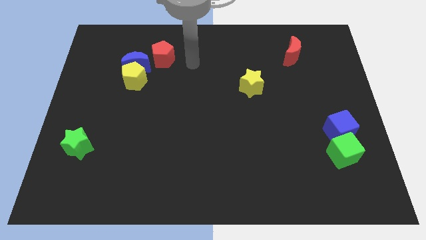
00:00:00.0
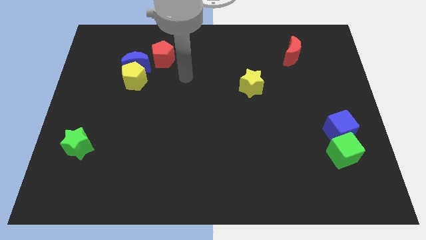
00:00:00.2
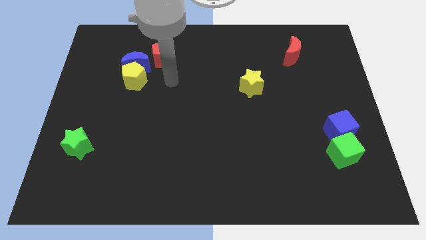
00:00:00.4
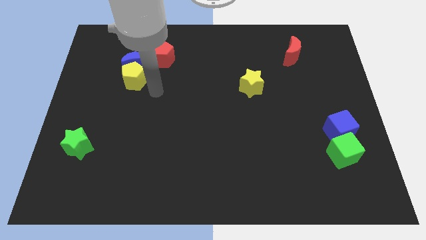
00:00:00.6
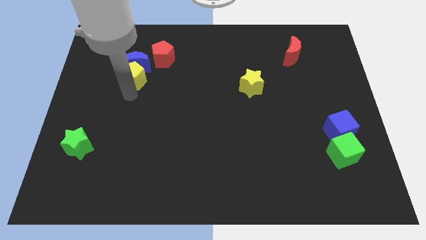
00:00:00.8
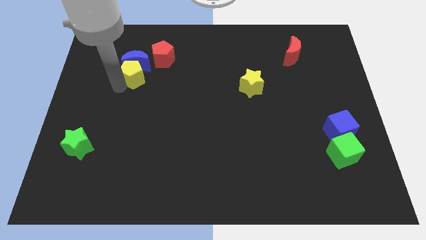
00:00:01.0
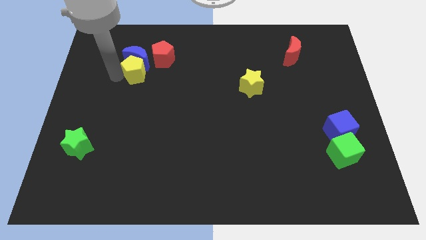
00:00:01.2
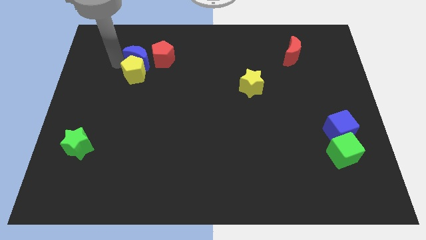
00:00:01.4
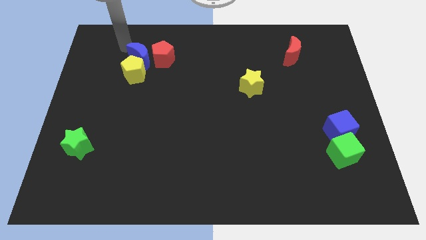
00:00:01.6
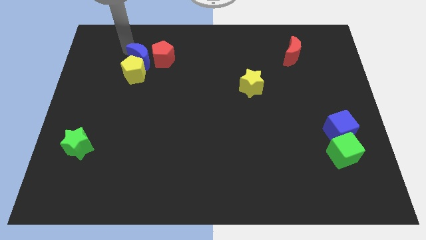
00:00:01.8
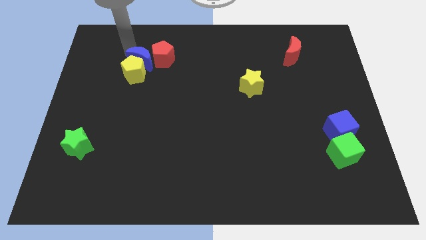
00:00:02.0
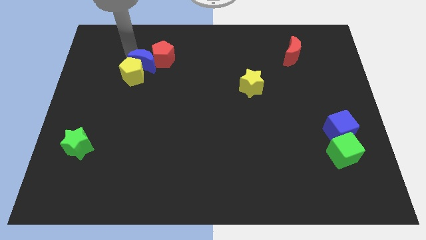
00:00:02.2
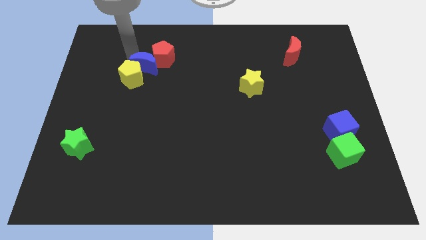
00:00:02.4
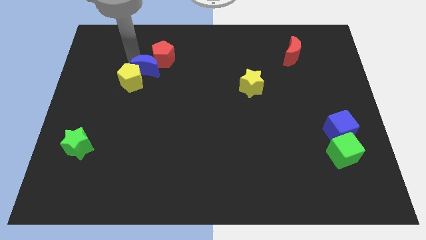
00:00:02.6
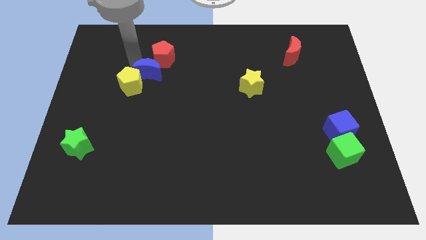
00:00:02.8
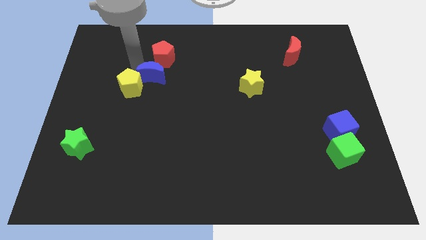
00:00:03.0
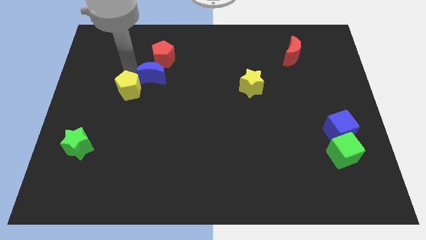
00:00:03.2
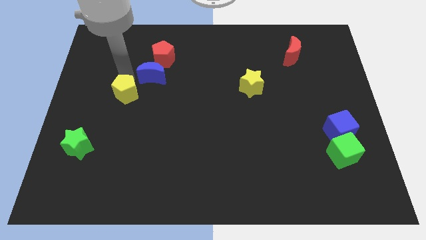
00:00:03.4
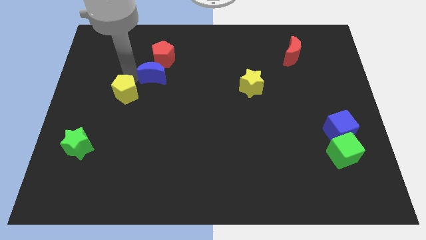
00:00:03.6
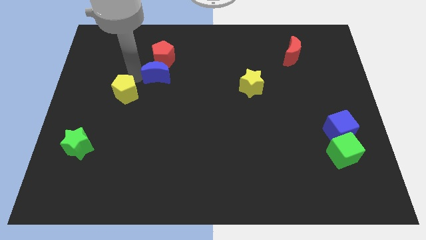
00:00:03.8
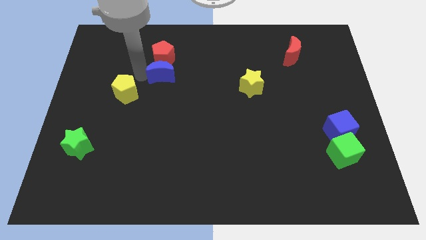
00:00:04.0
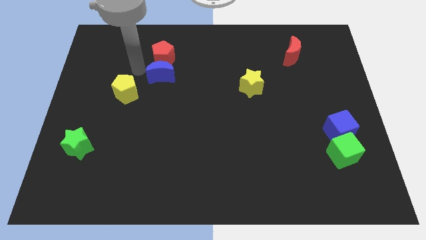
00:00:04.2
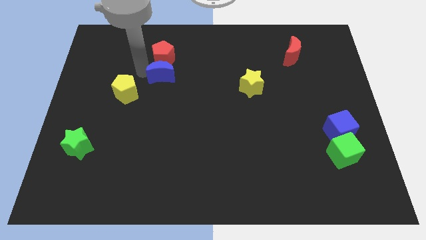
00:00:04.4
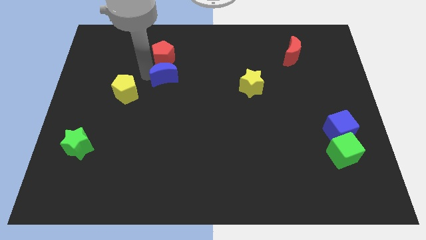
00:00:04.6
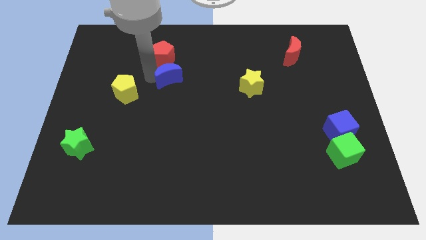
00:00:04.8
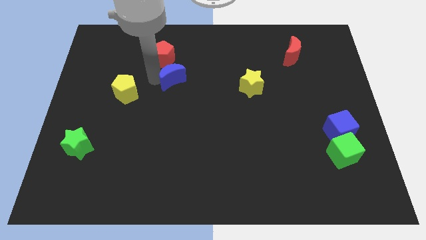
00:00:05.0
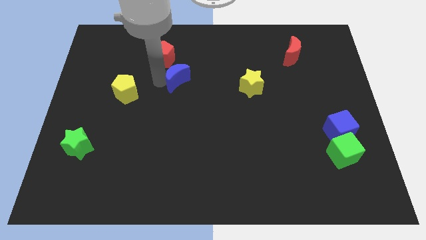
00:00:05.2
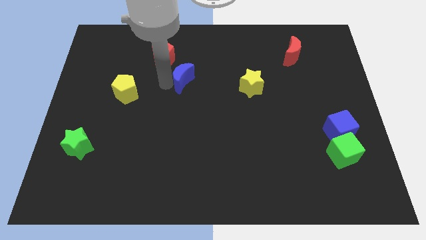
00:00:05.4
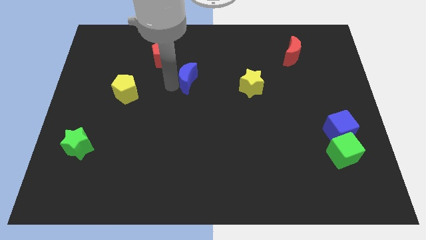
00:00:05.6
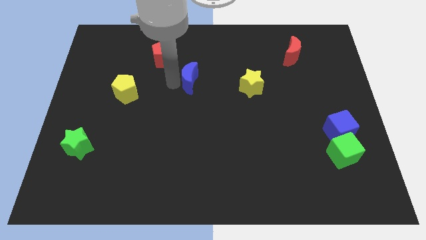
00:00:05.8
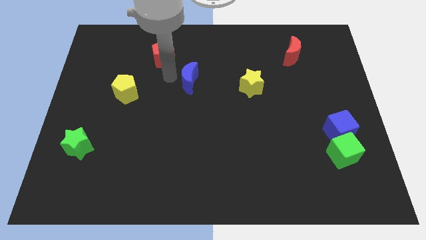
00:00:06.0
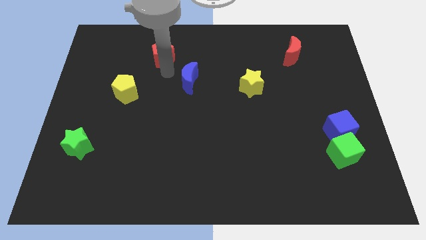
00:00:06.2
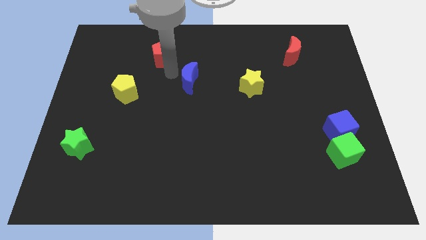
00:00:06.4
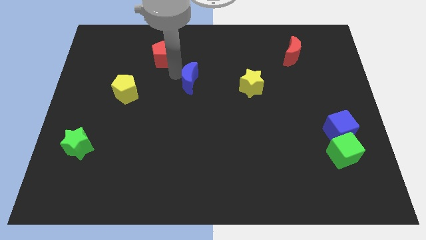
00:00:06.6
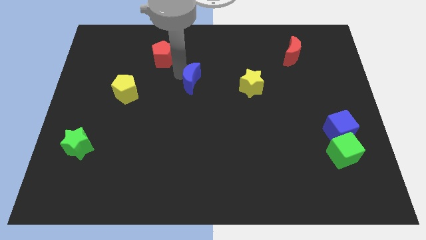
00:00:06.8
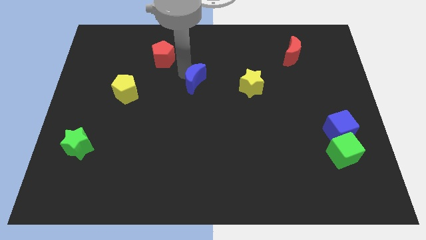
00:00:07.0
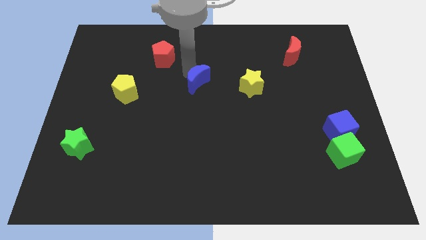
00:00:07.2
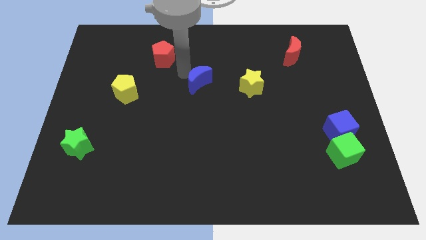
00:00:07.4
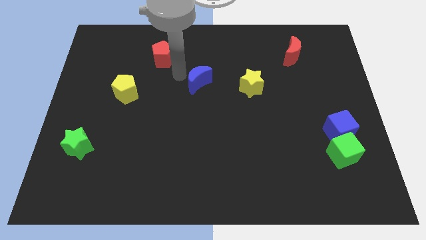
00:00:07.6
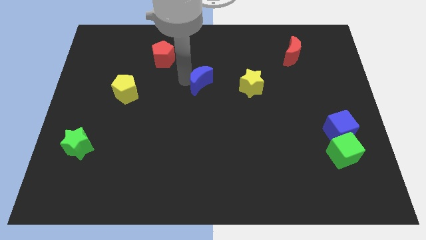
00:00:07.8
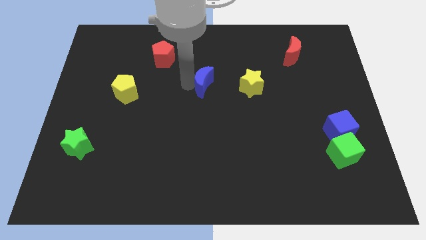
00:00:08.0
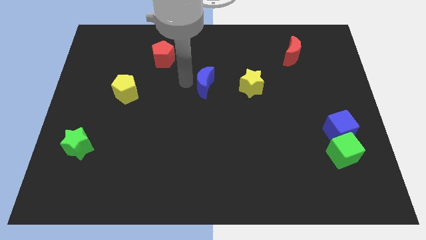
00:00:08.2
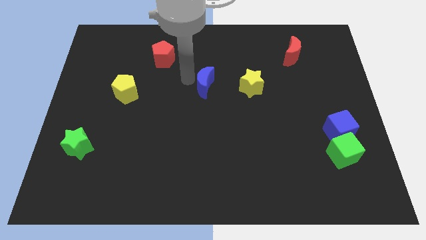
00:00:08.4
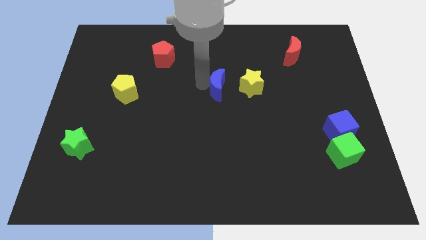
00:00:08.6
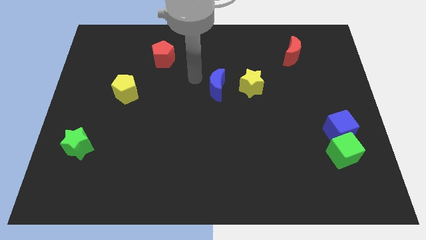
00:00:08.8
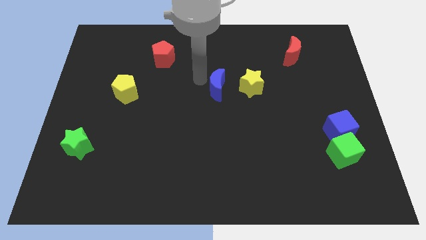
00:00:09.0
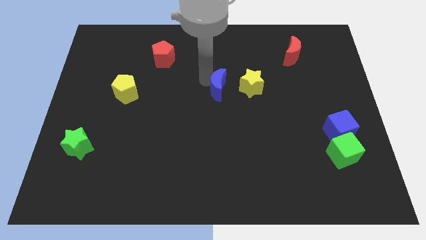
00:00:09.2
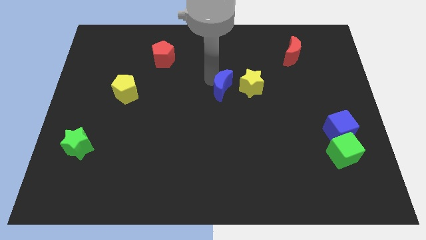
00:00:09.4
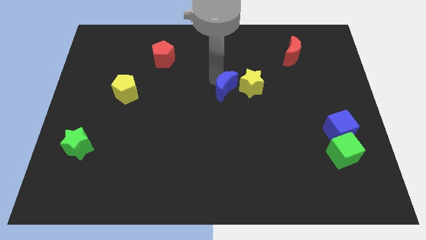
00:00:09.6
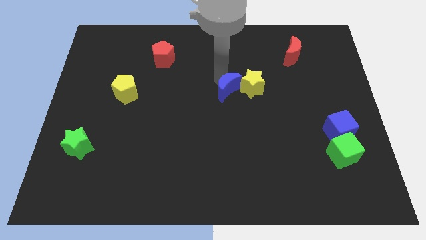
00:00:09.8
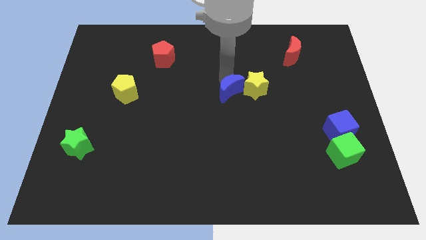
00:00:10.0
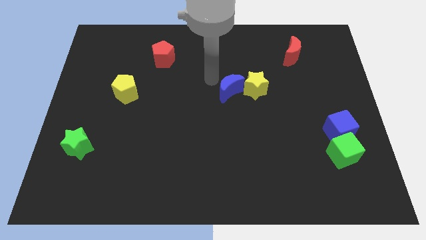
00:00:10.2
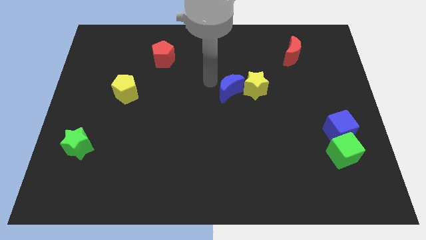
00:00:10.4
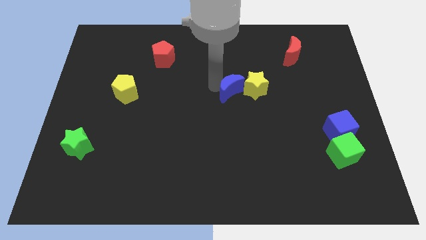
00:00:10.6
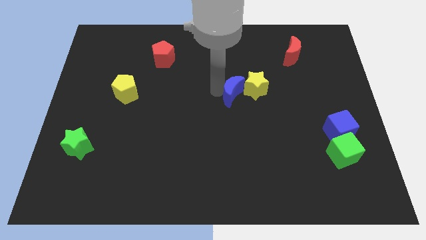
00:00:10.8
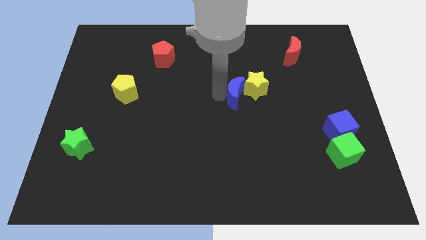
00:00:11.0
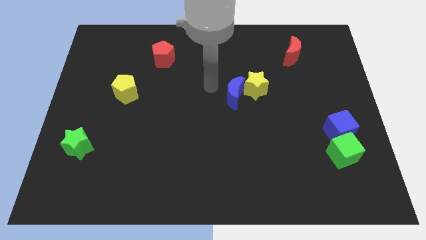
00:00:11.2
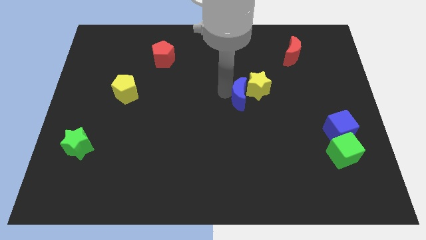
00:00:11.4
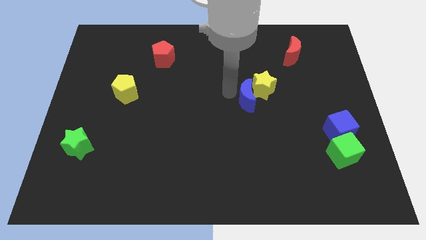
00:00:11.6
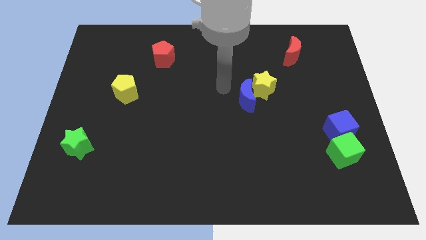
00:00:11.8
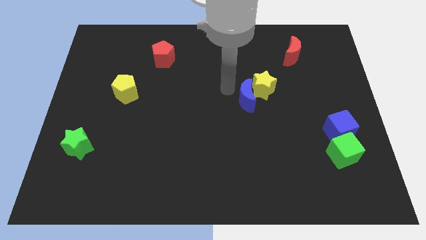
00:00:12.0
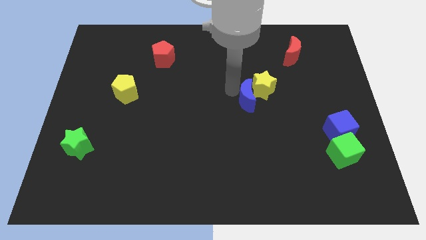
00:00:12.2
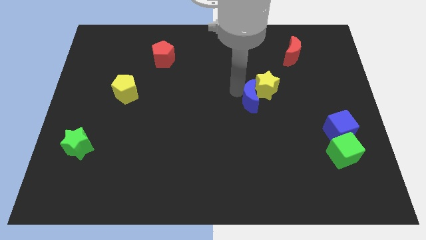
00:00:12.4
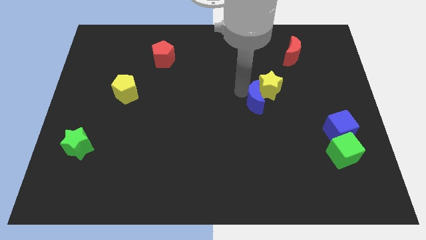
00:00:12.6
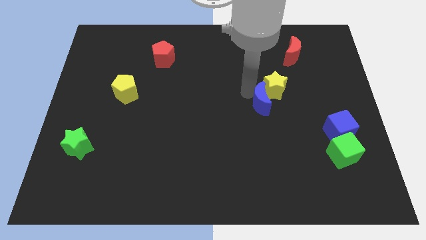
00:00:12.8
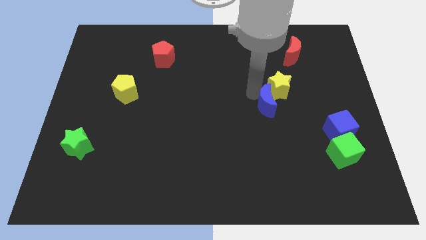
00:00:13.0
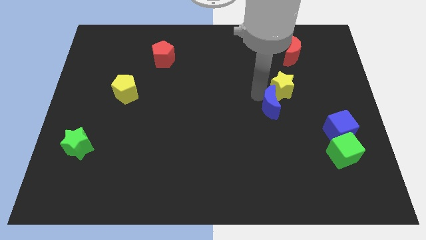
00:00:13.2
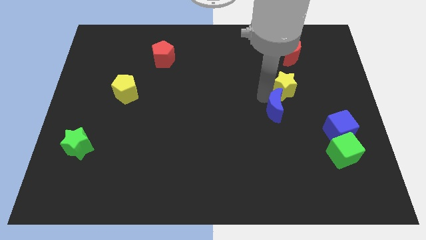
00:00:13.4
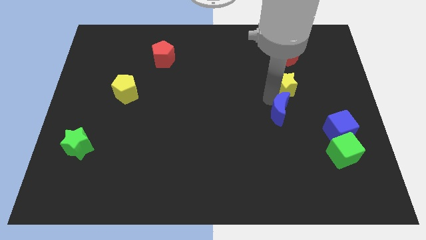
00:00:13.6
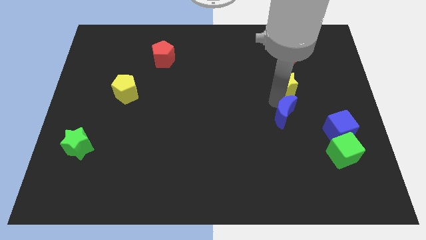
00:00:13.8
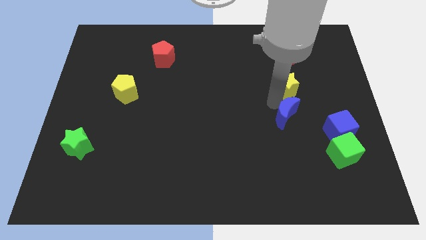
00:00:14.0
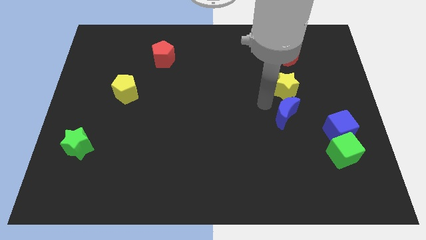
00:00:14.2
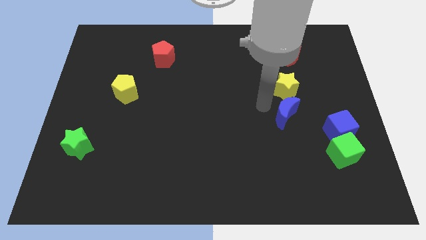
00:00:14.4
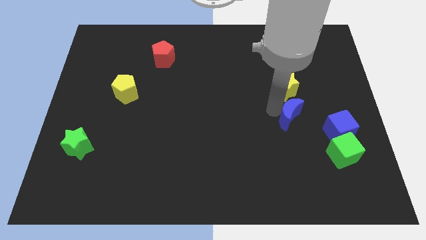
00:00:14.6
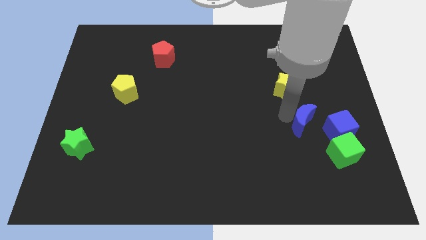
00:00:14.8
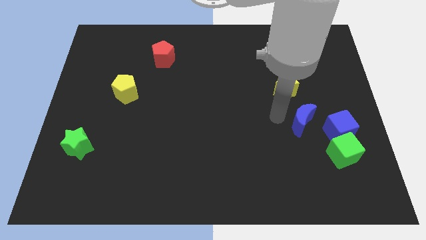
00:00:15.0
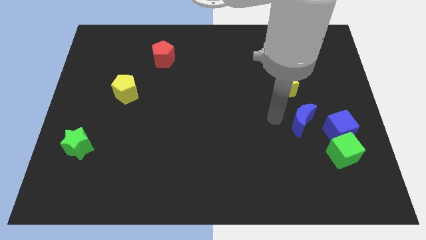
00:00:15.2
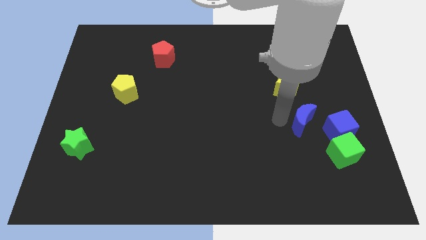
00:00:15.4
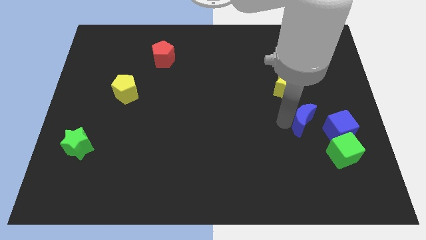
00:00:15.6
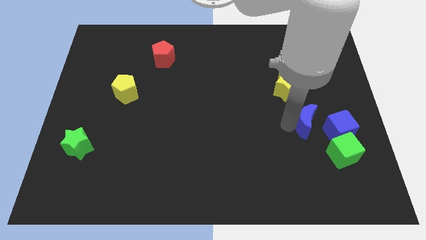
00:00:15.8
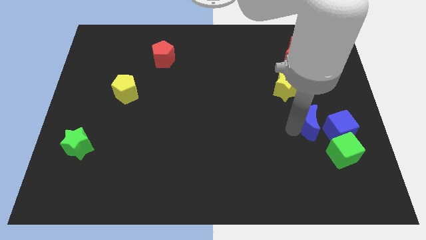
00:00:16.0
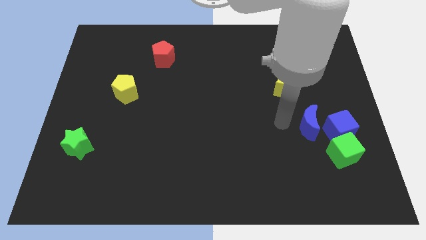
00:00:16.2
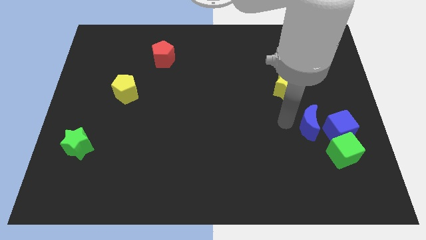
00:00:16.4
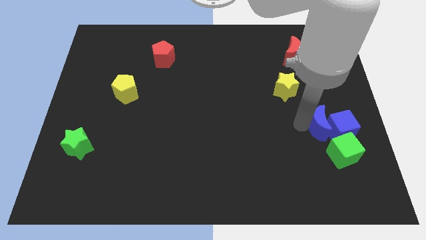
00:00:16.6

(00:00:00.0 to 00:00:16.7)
push the blue moon next to the blue cube
